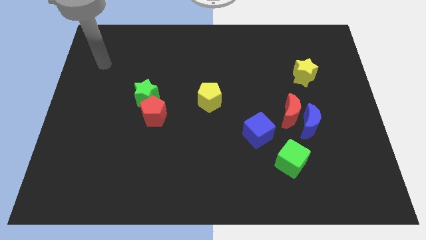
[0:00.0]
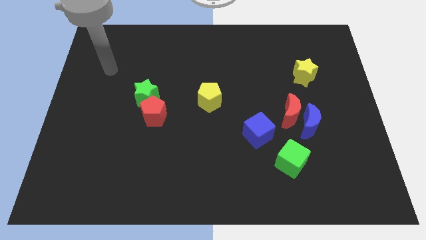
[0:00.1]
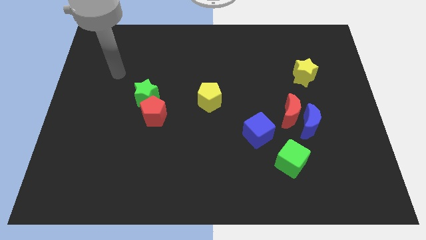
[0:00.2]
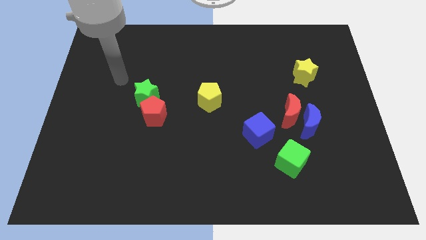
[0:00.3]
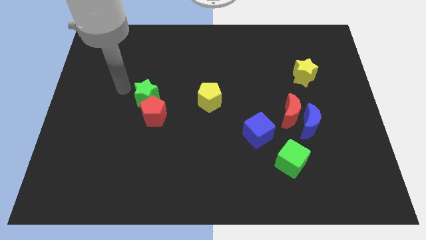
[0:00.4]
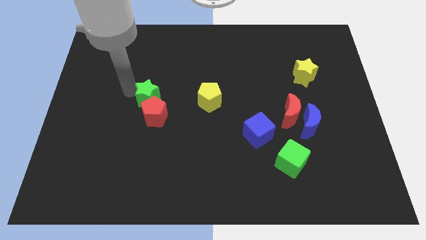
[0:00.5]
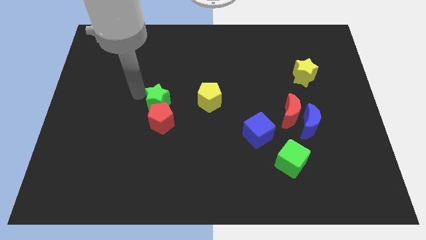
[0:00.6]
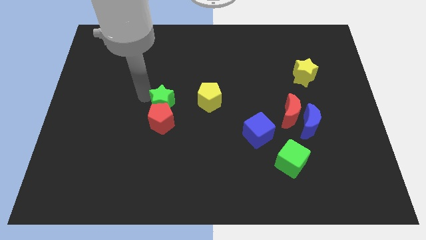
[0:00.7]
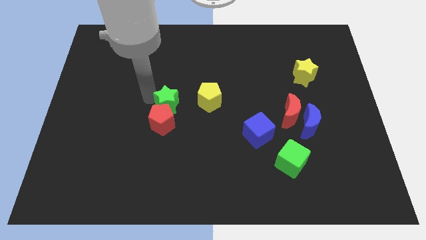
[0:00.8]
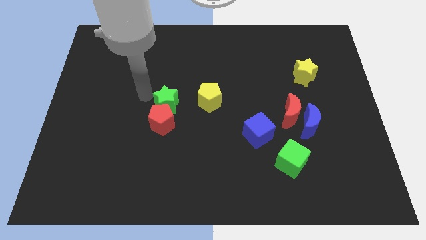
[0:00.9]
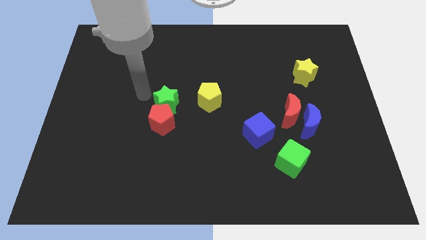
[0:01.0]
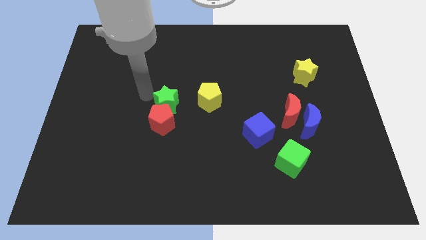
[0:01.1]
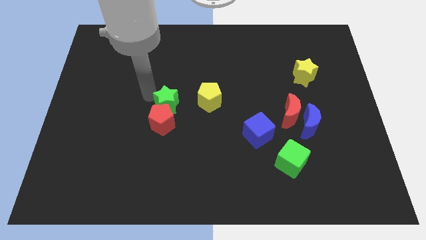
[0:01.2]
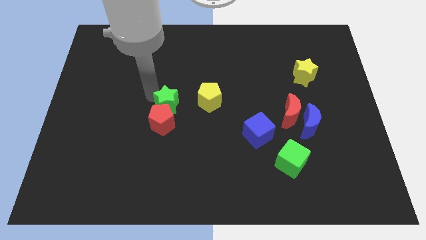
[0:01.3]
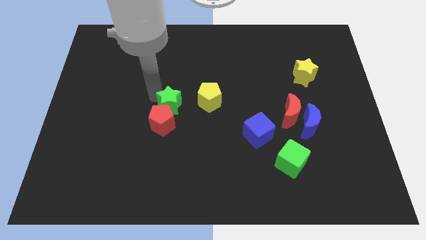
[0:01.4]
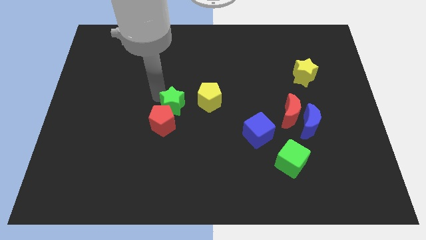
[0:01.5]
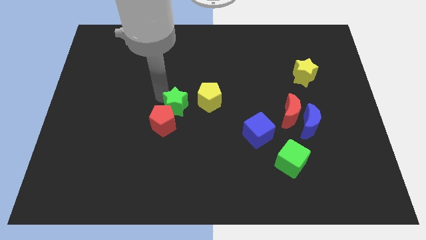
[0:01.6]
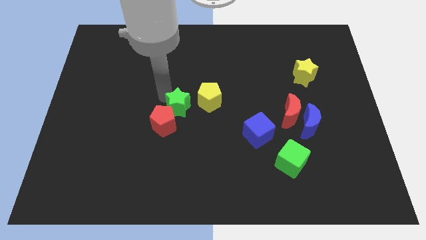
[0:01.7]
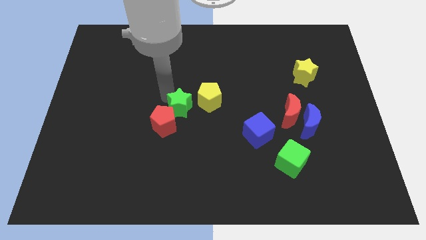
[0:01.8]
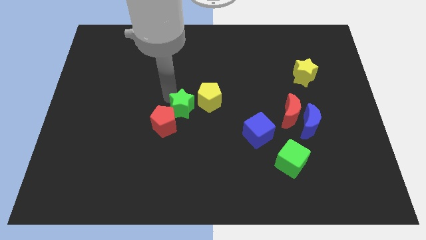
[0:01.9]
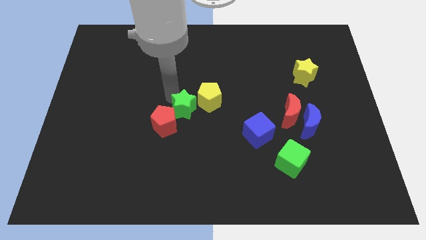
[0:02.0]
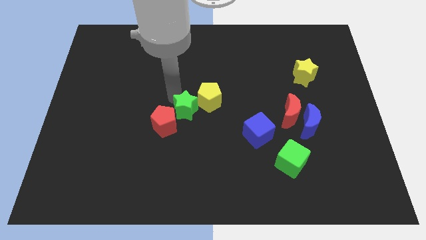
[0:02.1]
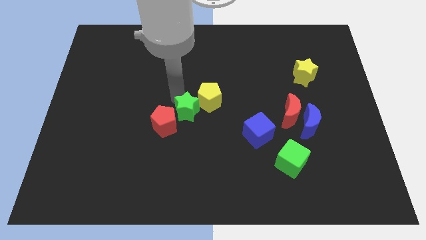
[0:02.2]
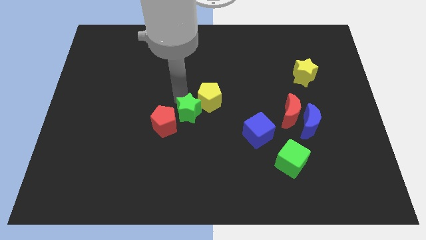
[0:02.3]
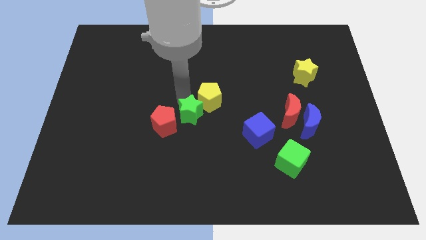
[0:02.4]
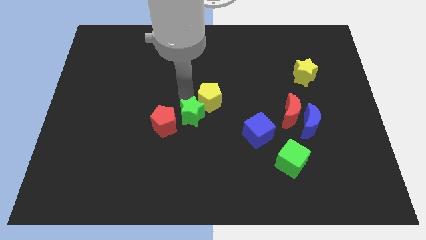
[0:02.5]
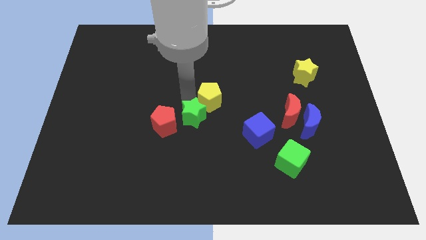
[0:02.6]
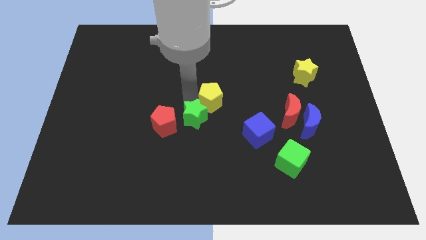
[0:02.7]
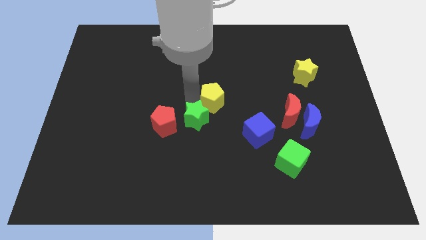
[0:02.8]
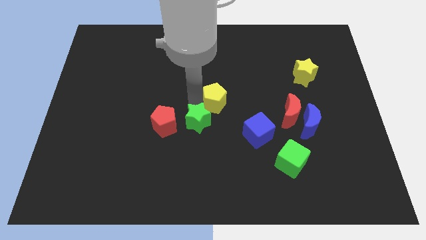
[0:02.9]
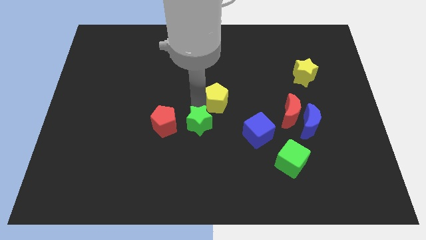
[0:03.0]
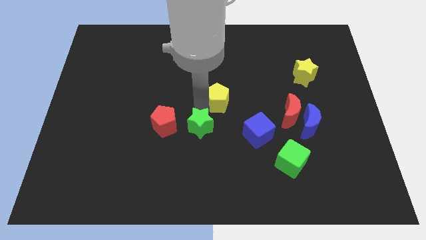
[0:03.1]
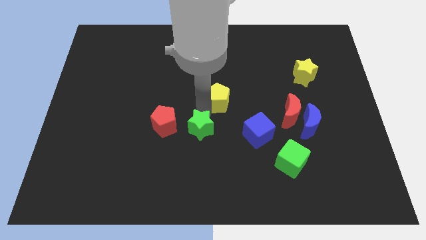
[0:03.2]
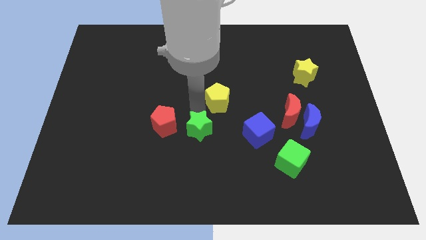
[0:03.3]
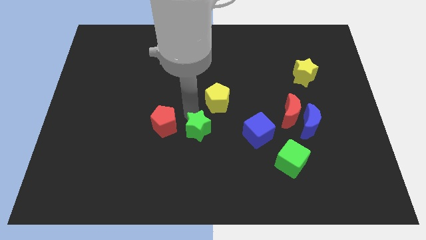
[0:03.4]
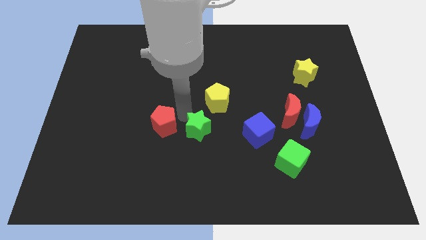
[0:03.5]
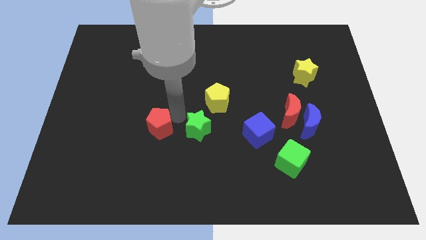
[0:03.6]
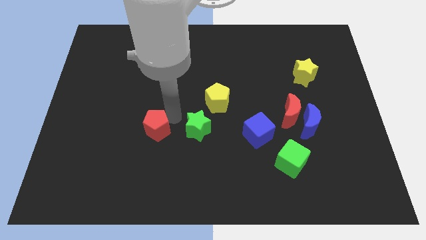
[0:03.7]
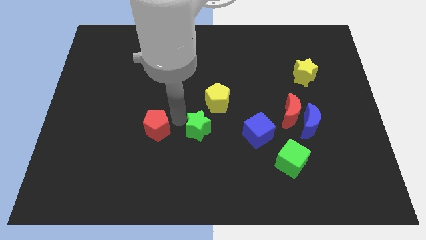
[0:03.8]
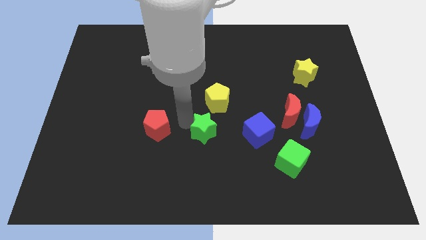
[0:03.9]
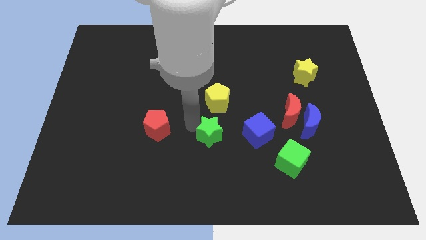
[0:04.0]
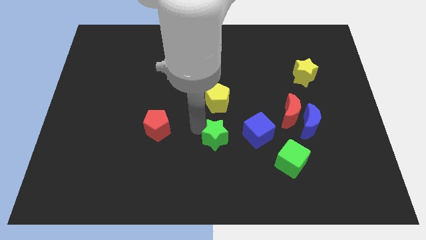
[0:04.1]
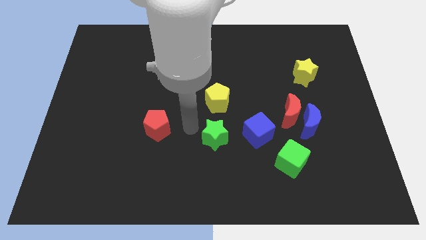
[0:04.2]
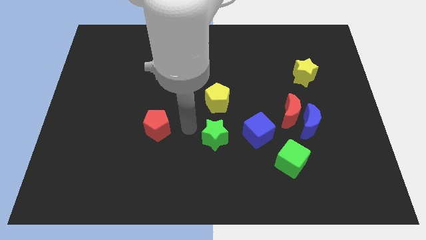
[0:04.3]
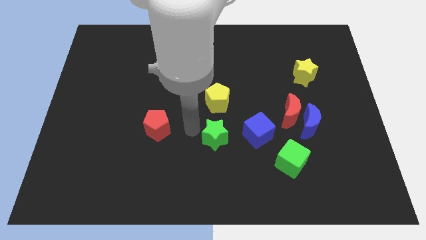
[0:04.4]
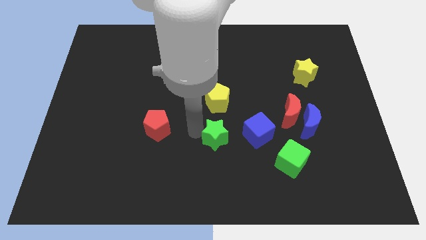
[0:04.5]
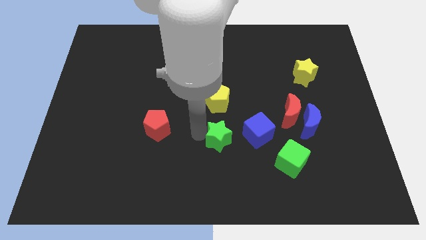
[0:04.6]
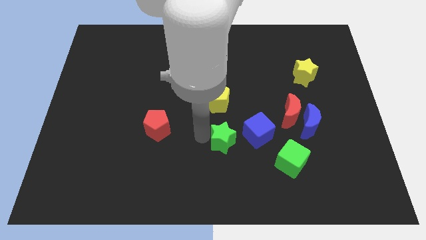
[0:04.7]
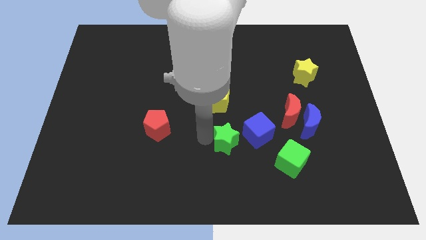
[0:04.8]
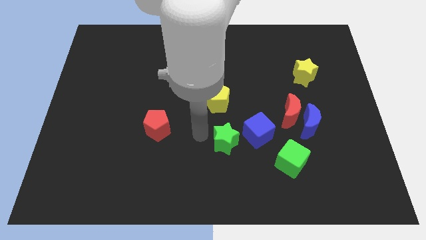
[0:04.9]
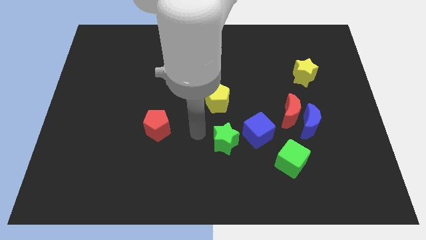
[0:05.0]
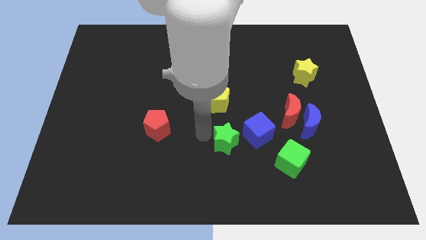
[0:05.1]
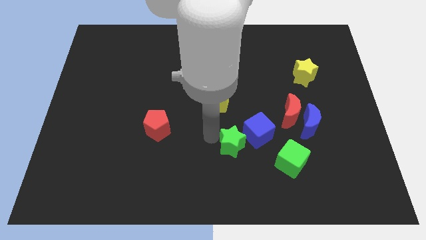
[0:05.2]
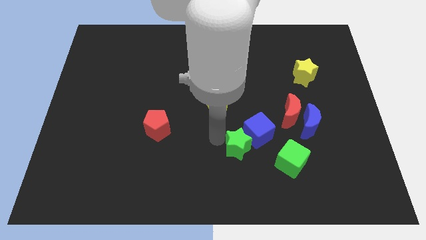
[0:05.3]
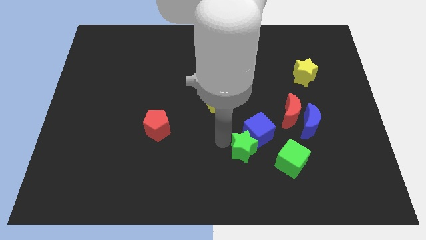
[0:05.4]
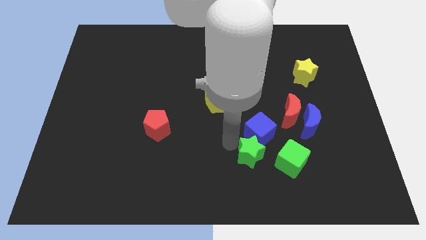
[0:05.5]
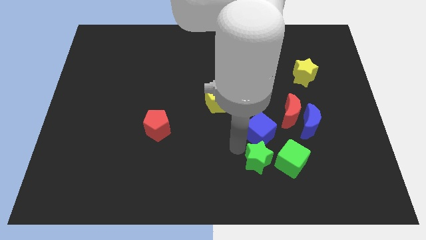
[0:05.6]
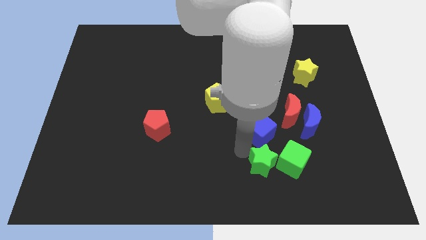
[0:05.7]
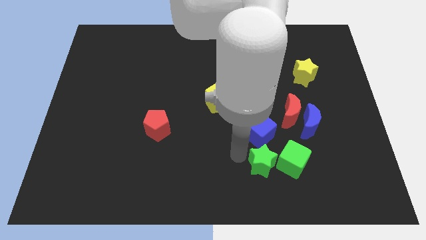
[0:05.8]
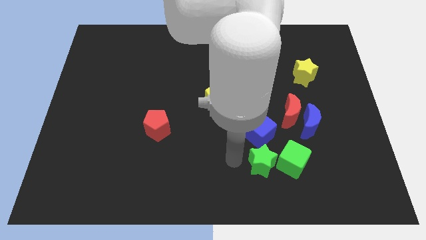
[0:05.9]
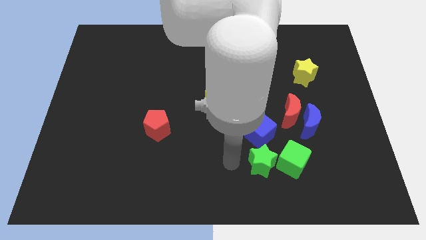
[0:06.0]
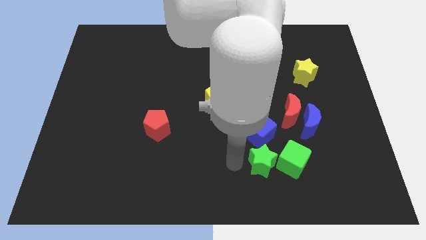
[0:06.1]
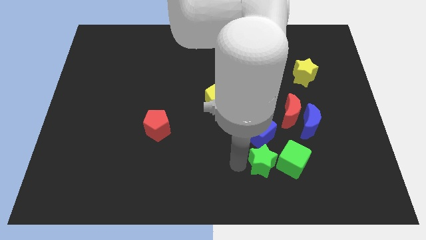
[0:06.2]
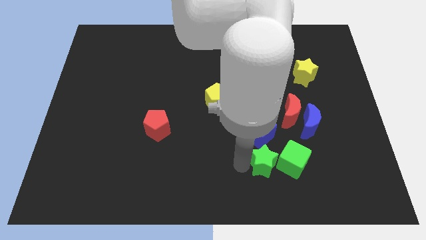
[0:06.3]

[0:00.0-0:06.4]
put the green star towards the green cube

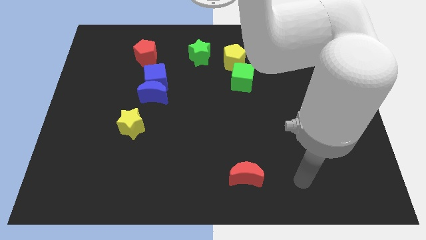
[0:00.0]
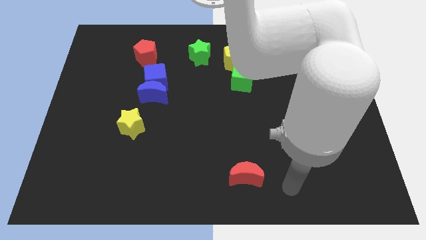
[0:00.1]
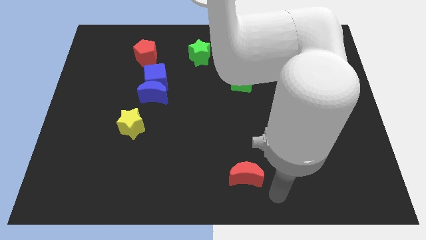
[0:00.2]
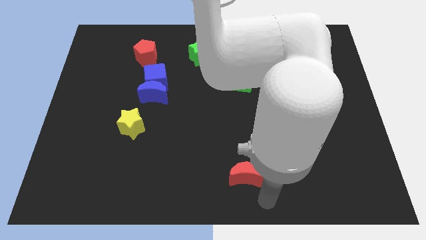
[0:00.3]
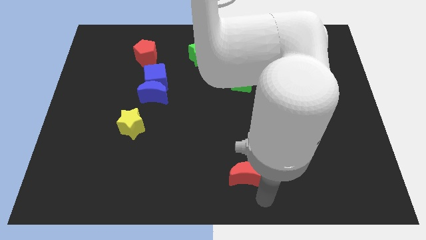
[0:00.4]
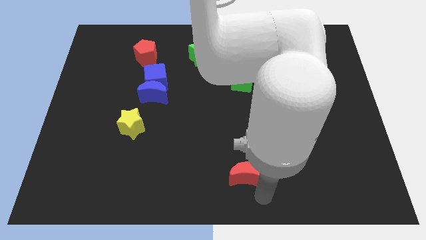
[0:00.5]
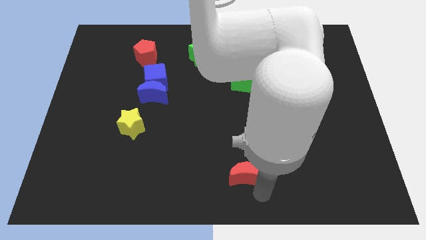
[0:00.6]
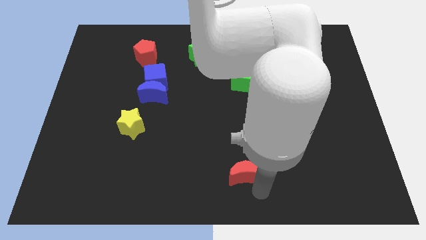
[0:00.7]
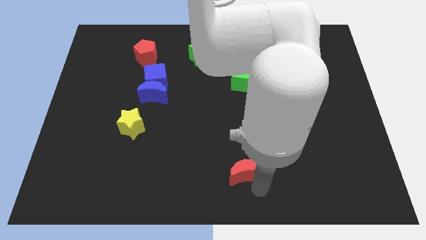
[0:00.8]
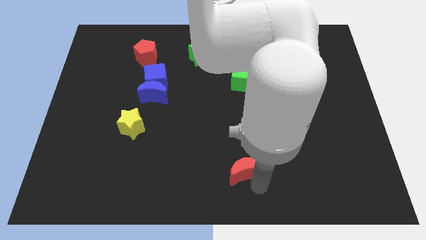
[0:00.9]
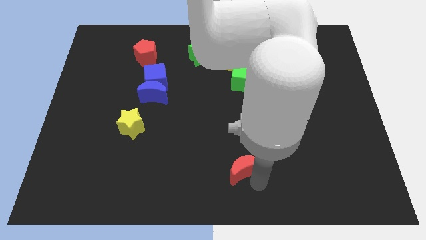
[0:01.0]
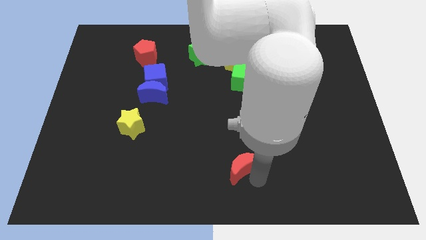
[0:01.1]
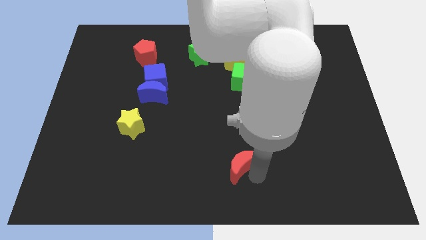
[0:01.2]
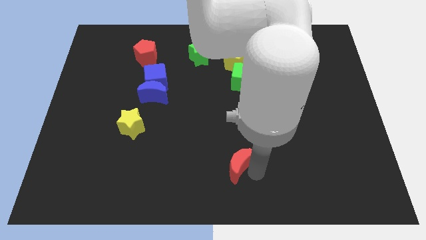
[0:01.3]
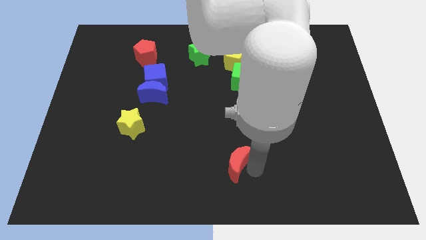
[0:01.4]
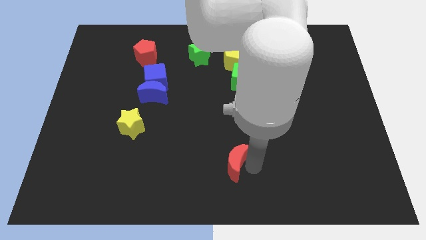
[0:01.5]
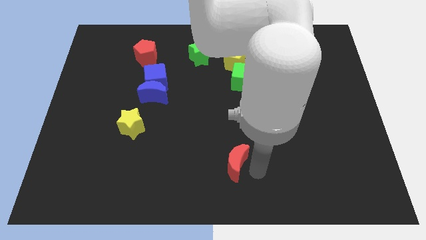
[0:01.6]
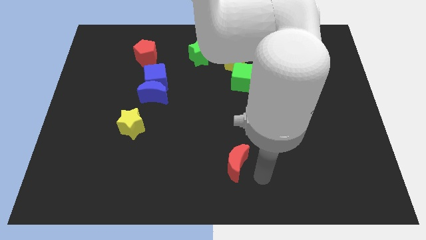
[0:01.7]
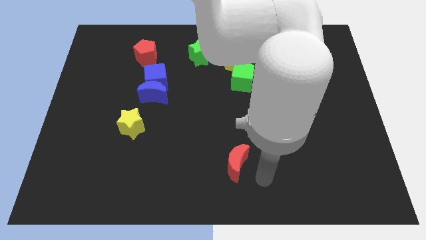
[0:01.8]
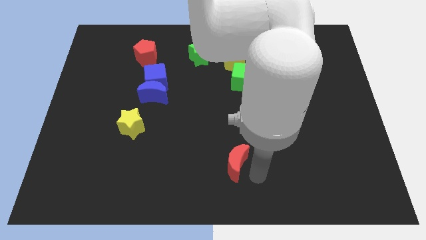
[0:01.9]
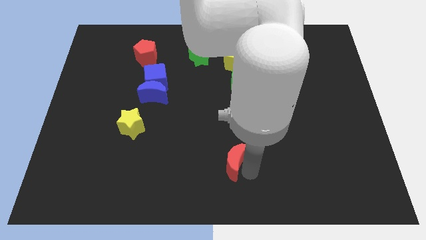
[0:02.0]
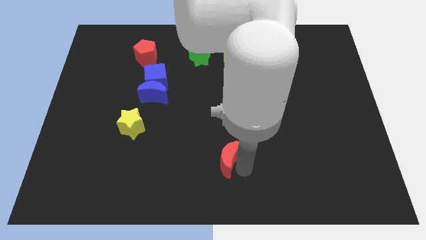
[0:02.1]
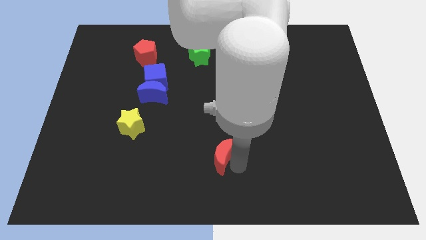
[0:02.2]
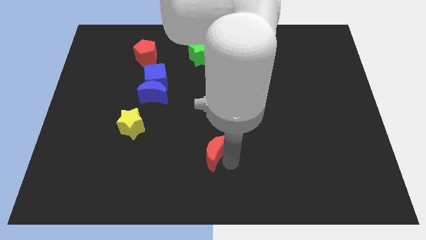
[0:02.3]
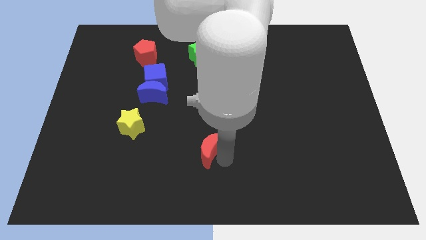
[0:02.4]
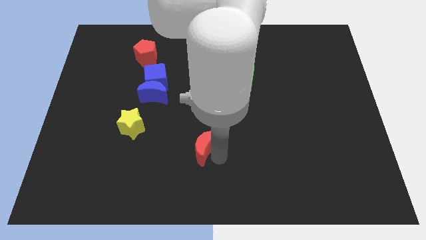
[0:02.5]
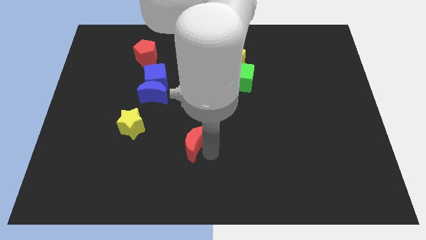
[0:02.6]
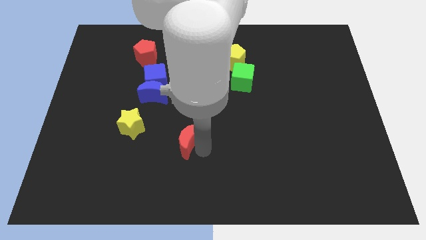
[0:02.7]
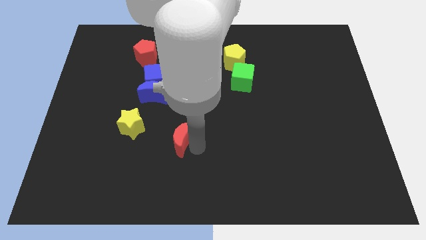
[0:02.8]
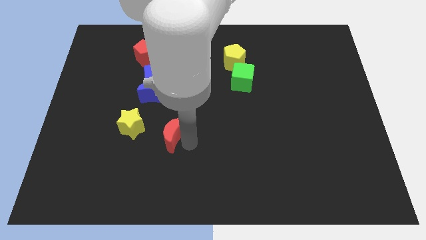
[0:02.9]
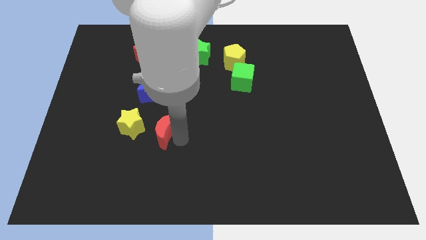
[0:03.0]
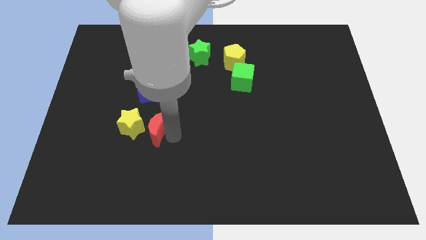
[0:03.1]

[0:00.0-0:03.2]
put the red moon towards the yellow star
